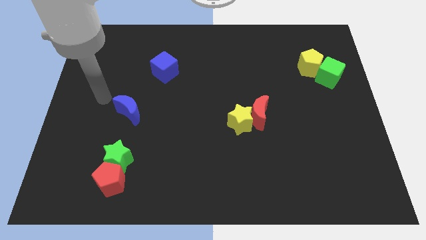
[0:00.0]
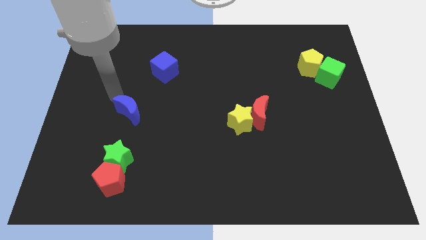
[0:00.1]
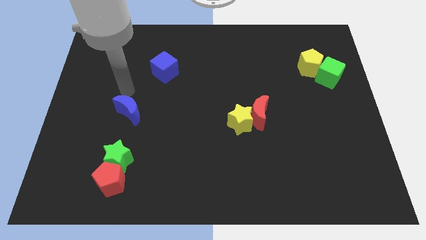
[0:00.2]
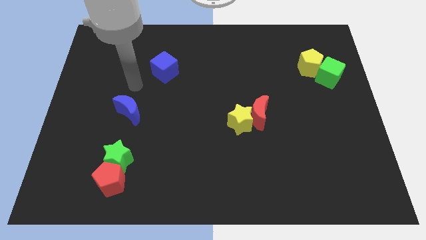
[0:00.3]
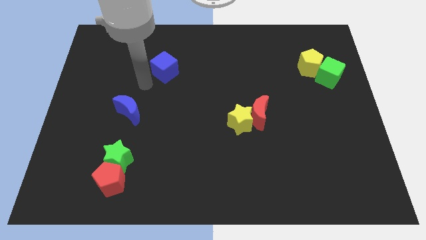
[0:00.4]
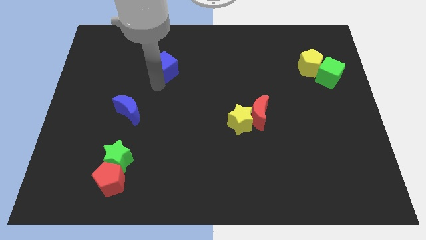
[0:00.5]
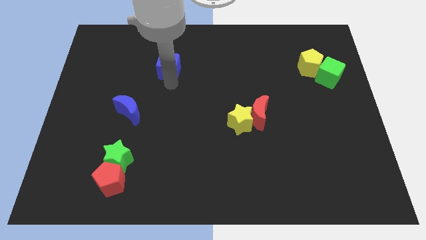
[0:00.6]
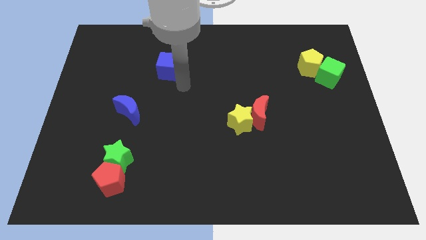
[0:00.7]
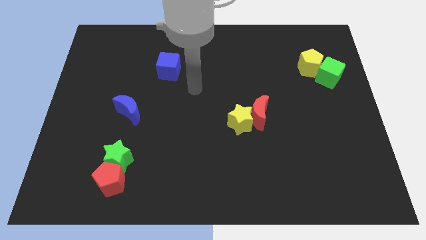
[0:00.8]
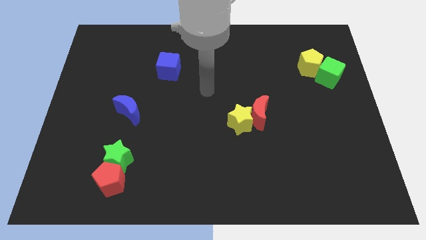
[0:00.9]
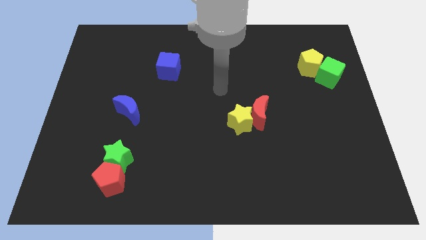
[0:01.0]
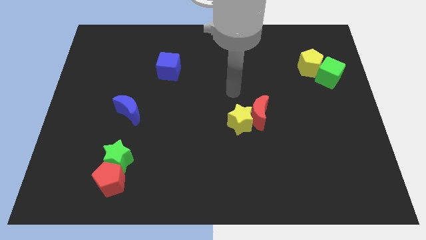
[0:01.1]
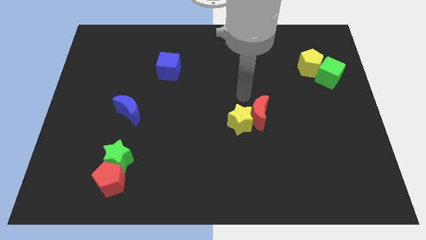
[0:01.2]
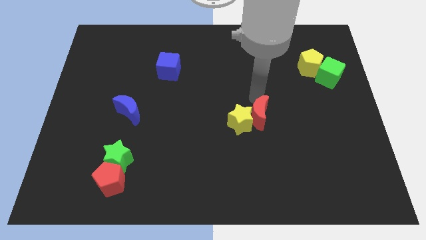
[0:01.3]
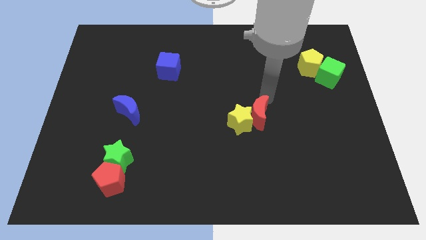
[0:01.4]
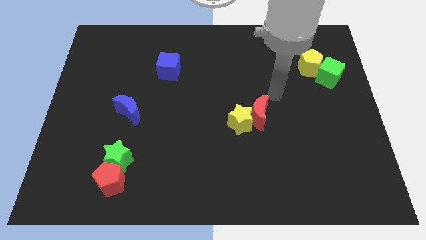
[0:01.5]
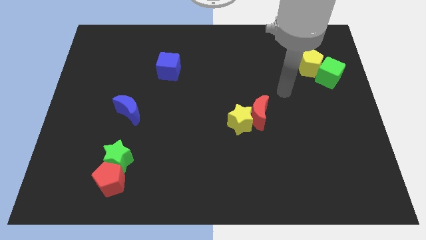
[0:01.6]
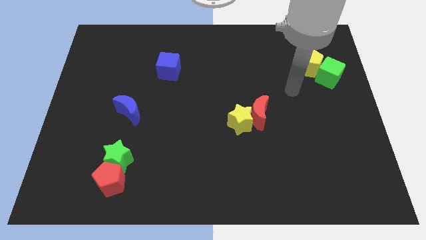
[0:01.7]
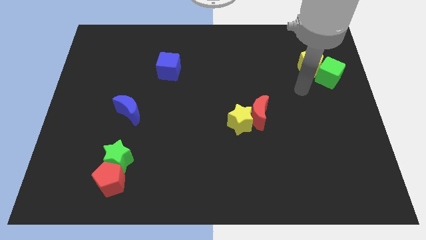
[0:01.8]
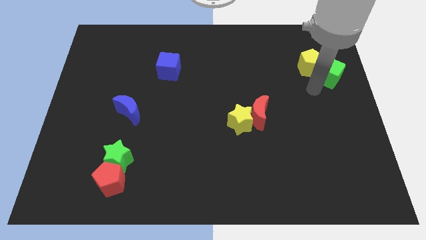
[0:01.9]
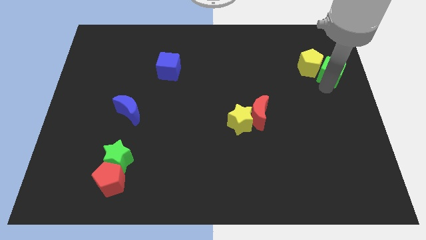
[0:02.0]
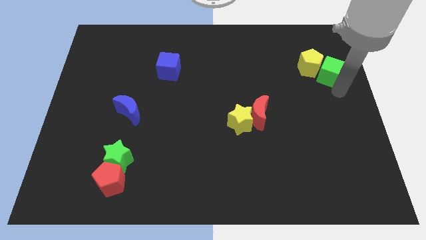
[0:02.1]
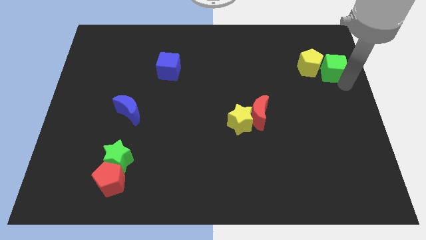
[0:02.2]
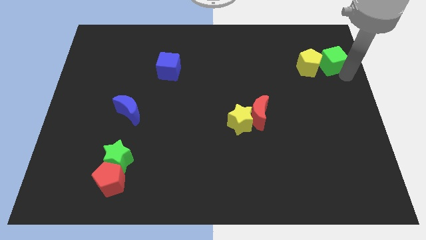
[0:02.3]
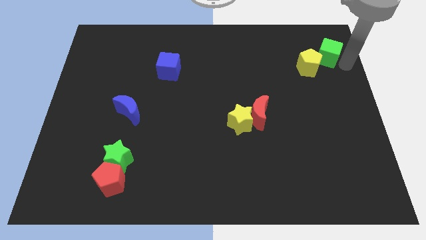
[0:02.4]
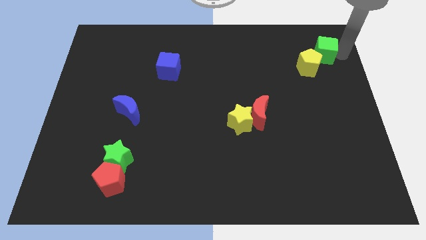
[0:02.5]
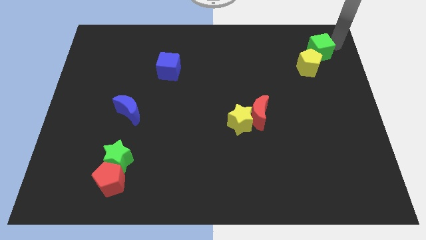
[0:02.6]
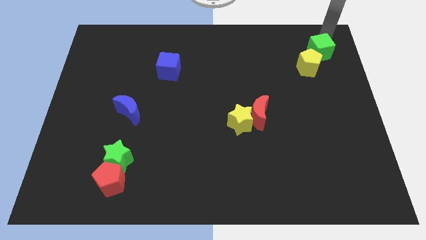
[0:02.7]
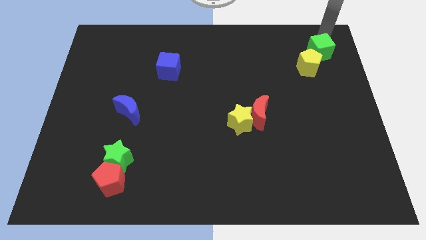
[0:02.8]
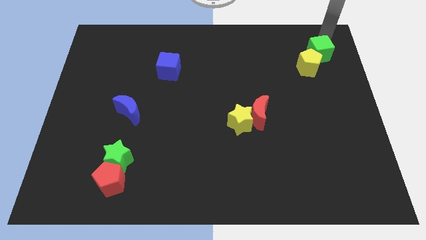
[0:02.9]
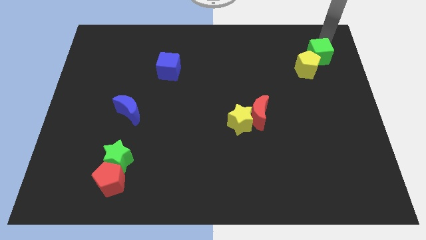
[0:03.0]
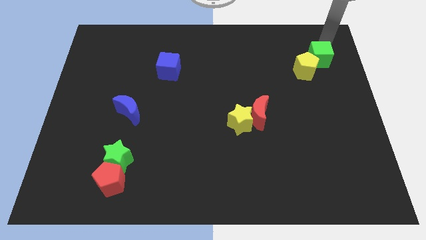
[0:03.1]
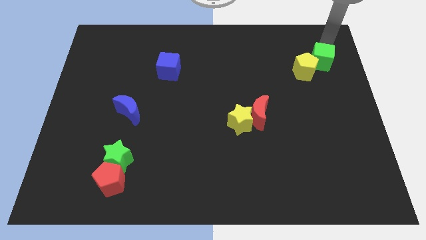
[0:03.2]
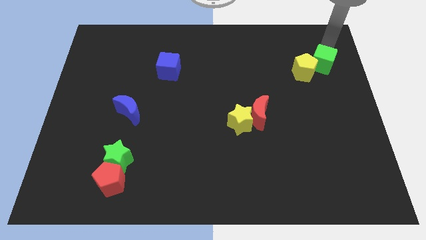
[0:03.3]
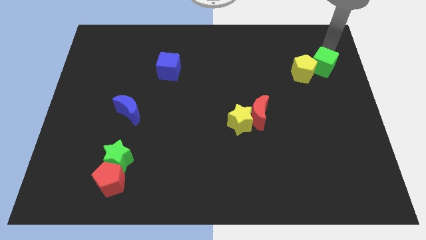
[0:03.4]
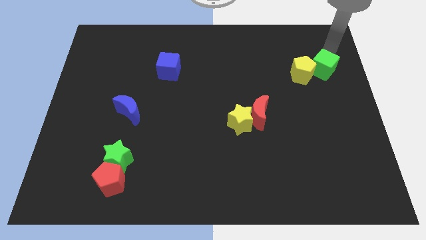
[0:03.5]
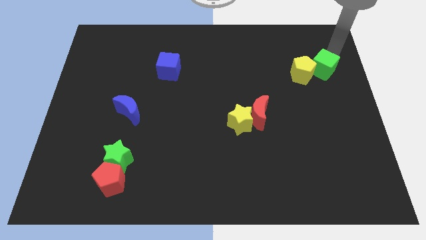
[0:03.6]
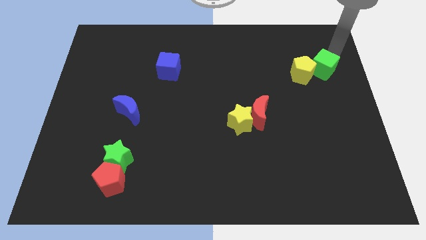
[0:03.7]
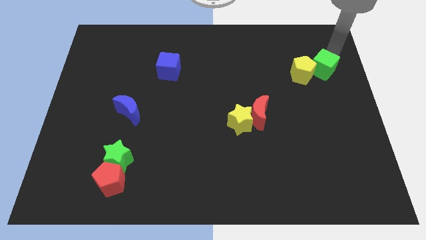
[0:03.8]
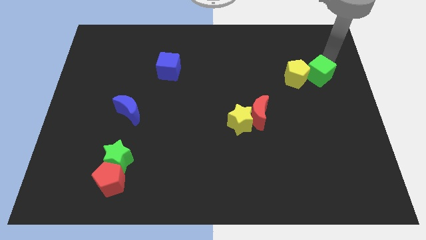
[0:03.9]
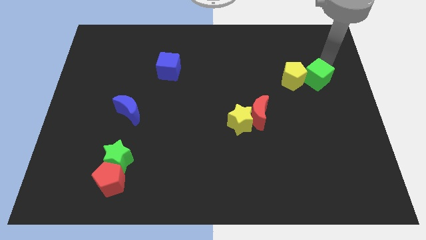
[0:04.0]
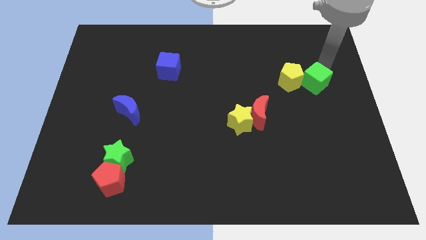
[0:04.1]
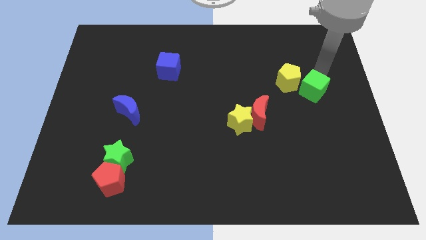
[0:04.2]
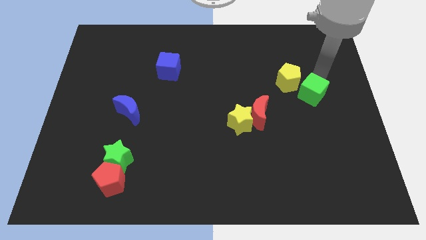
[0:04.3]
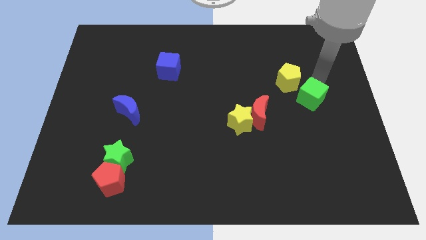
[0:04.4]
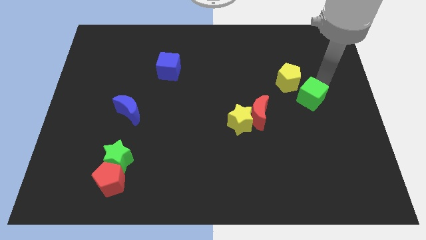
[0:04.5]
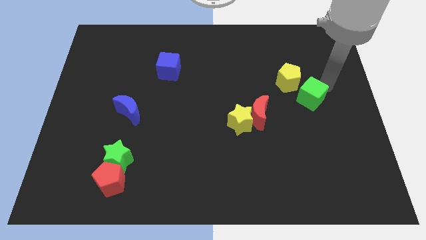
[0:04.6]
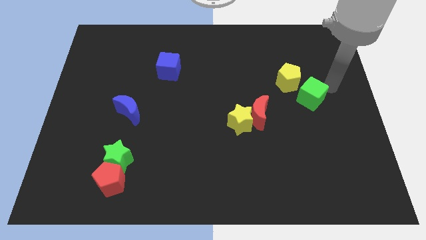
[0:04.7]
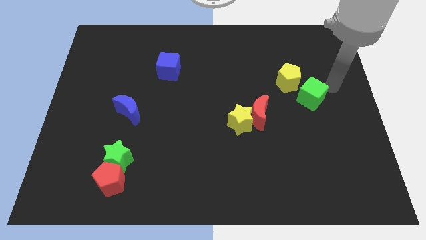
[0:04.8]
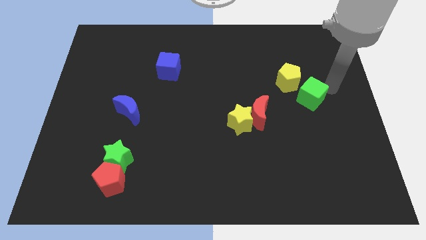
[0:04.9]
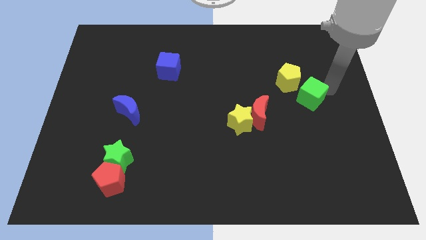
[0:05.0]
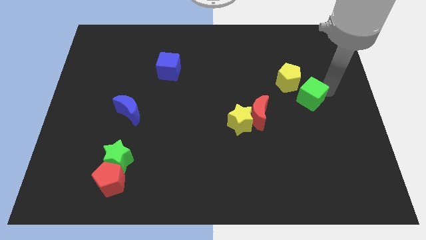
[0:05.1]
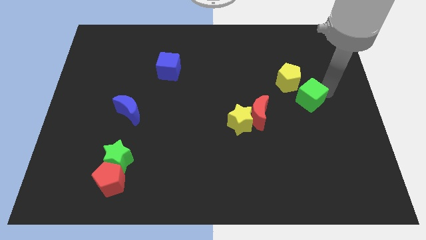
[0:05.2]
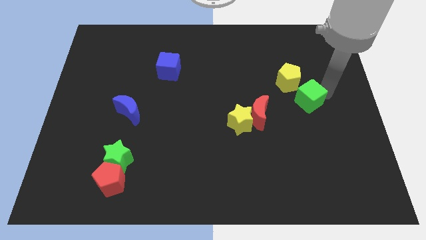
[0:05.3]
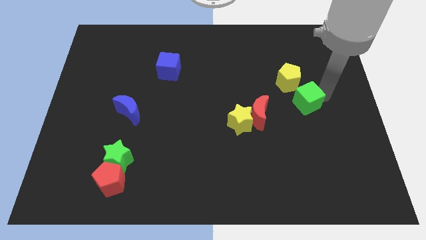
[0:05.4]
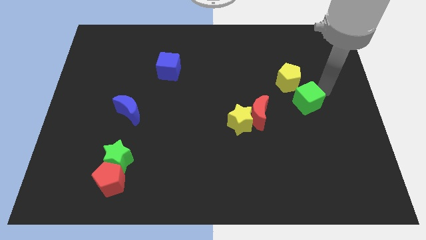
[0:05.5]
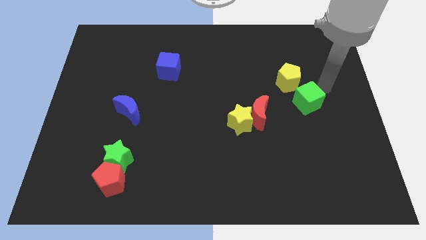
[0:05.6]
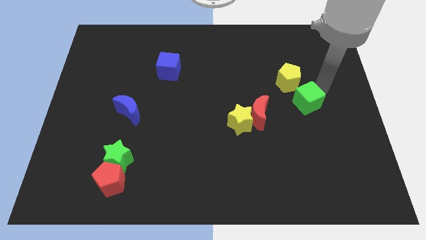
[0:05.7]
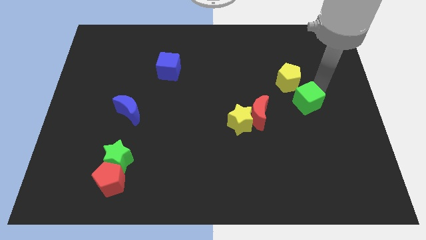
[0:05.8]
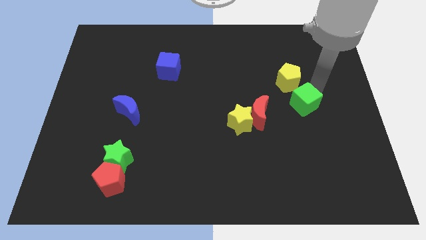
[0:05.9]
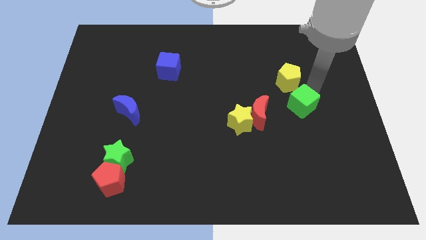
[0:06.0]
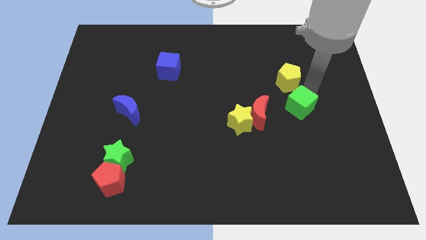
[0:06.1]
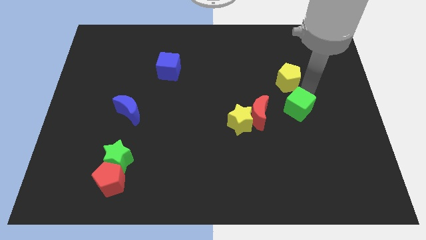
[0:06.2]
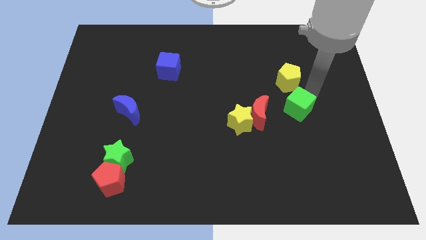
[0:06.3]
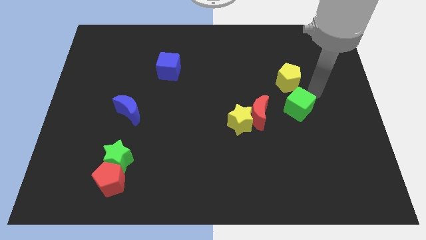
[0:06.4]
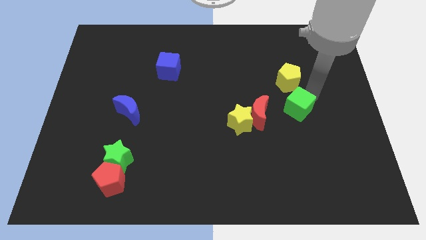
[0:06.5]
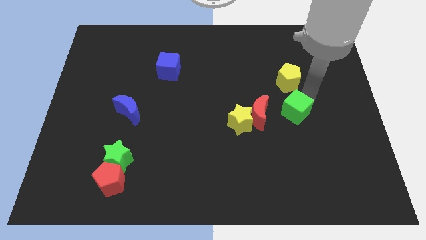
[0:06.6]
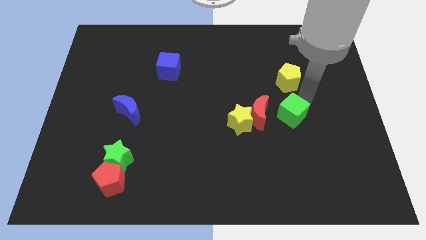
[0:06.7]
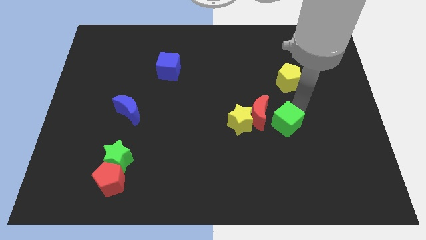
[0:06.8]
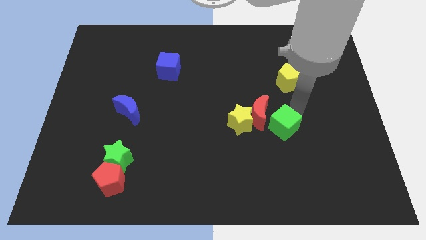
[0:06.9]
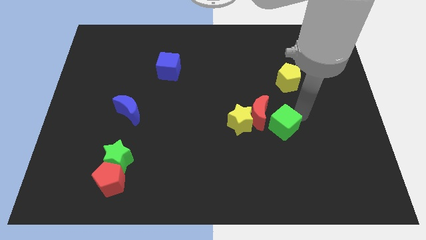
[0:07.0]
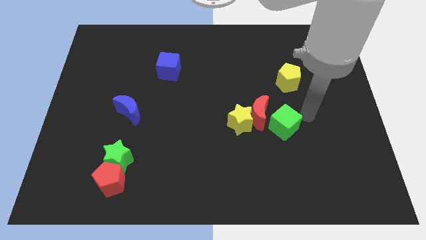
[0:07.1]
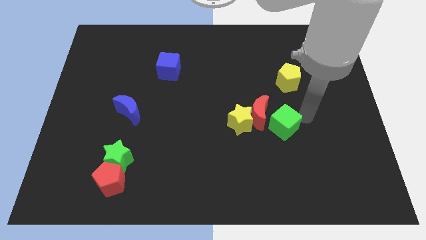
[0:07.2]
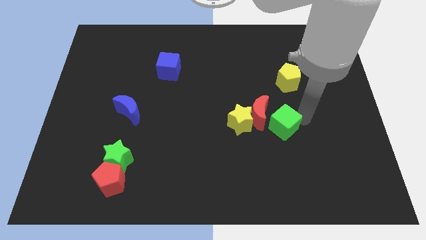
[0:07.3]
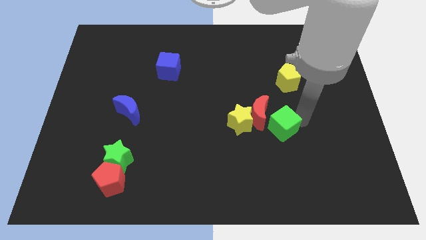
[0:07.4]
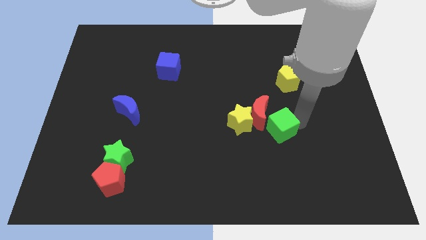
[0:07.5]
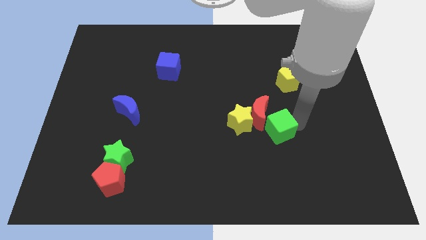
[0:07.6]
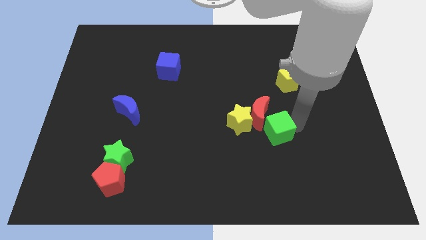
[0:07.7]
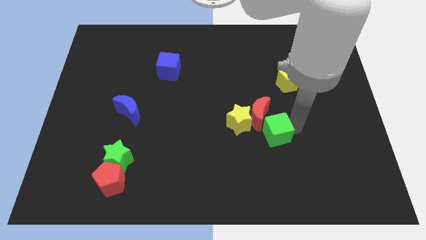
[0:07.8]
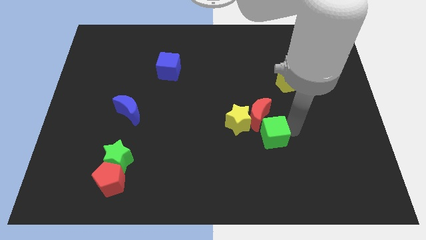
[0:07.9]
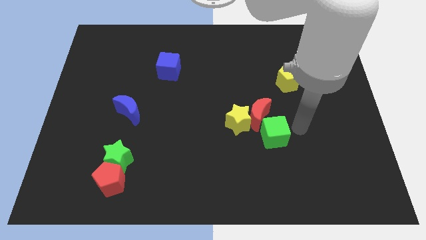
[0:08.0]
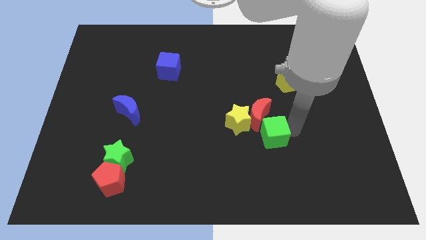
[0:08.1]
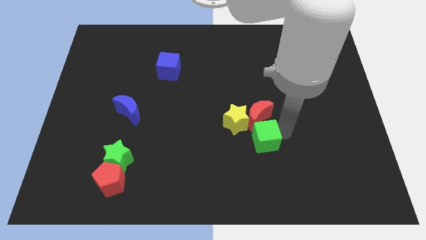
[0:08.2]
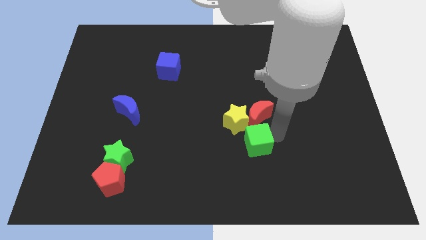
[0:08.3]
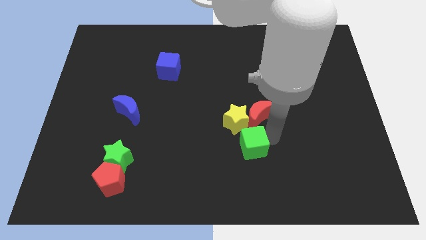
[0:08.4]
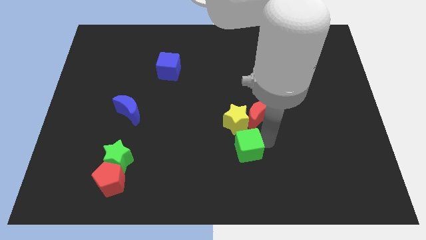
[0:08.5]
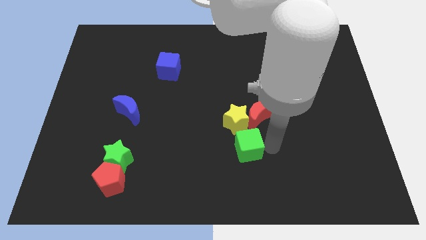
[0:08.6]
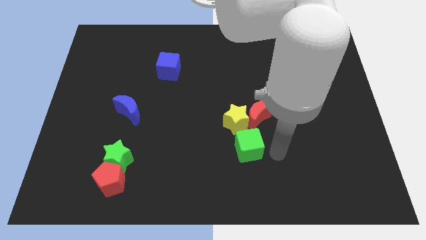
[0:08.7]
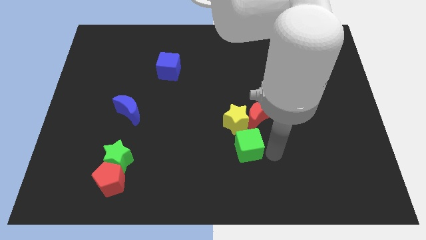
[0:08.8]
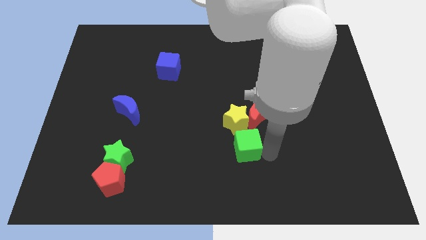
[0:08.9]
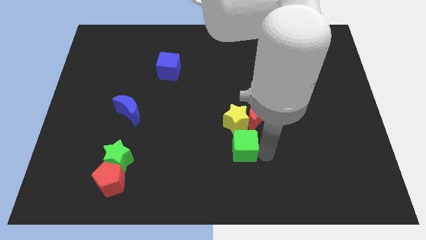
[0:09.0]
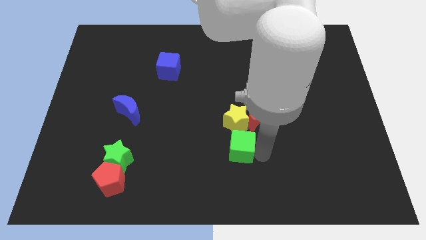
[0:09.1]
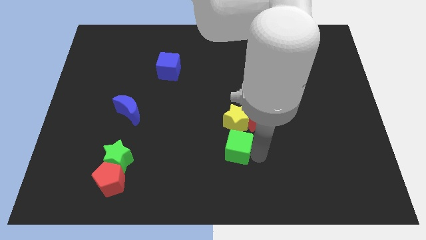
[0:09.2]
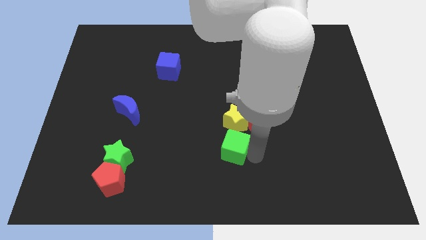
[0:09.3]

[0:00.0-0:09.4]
put the green cube diagonally down and to the left of the yellow star
